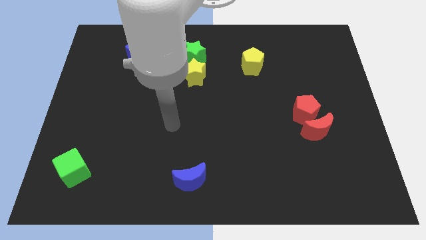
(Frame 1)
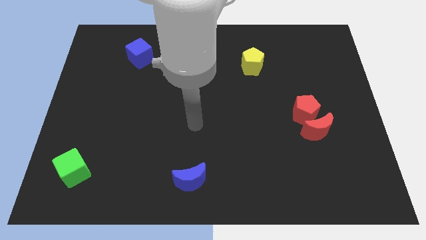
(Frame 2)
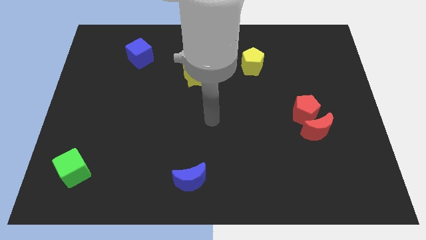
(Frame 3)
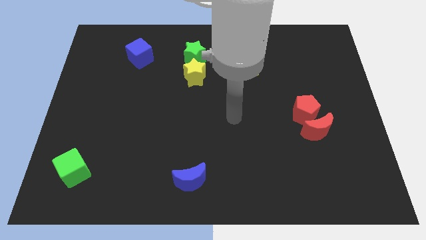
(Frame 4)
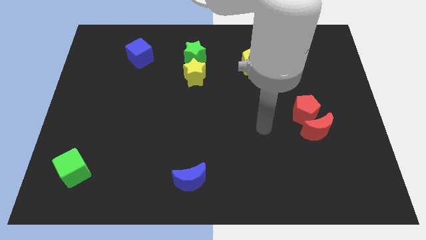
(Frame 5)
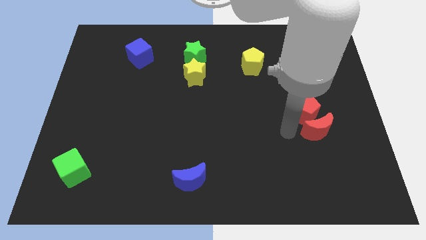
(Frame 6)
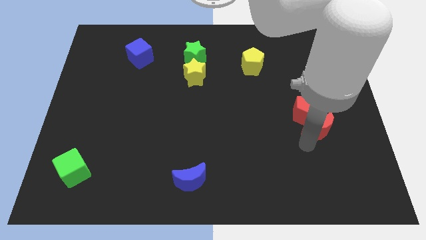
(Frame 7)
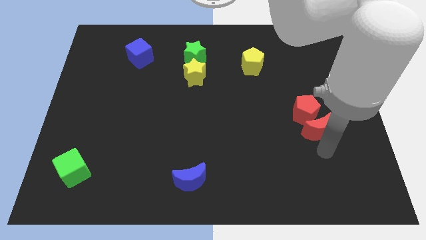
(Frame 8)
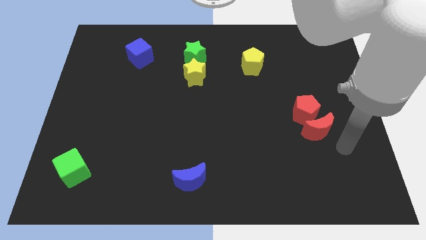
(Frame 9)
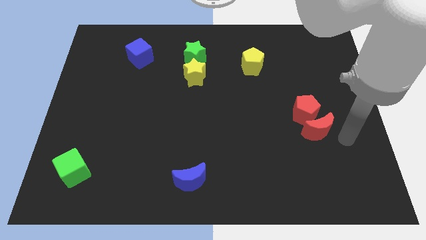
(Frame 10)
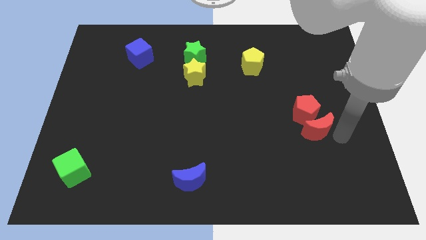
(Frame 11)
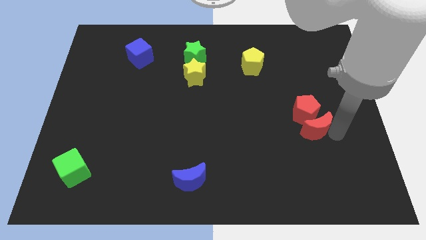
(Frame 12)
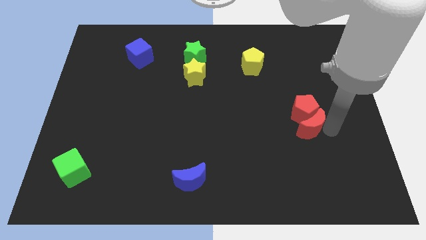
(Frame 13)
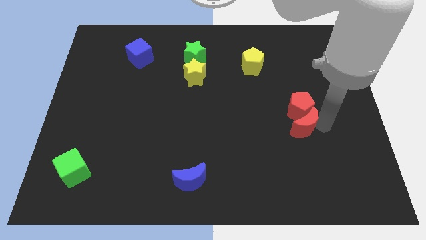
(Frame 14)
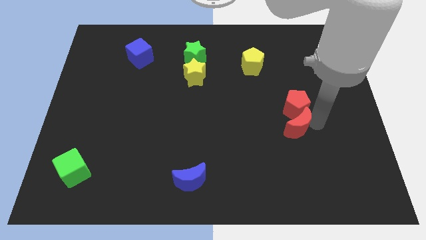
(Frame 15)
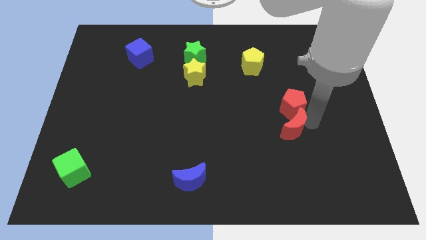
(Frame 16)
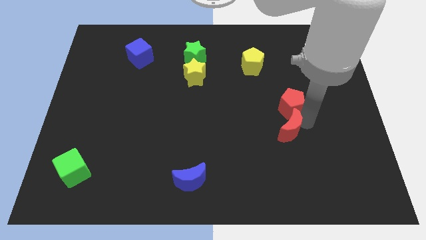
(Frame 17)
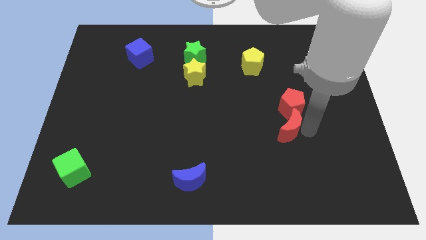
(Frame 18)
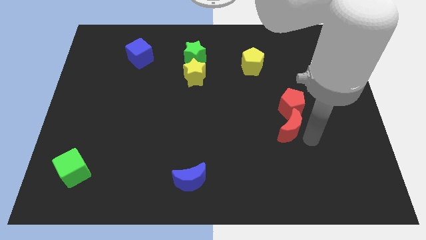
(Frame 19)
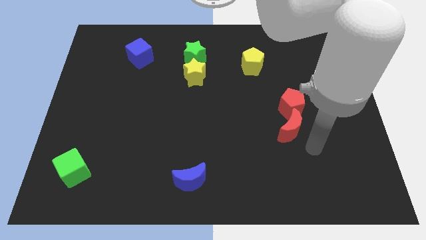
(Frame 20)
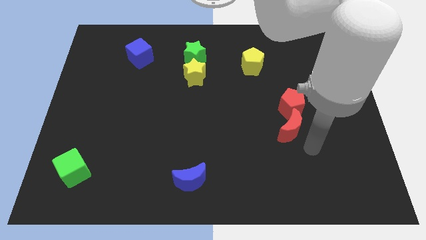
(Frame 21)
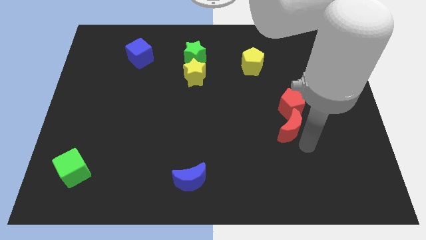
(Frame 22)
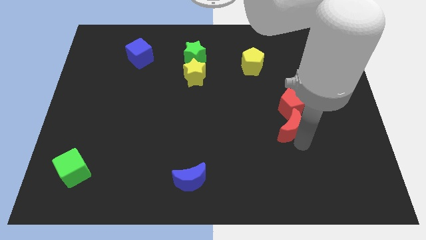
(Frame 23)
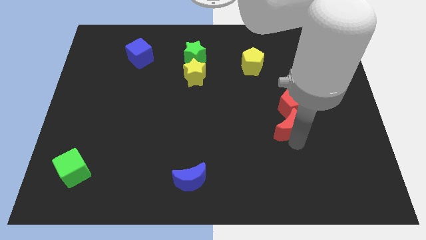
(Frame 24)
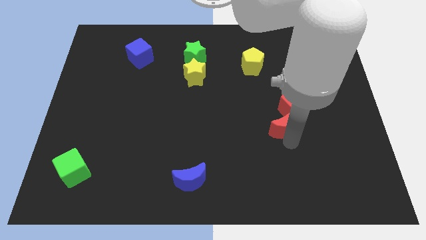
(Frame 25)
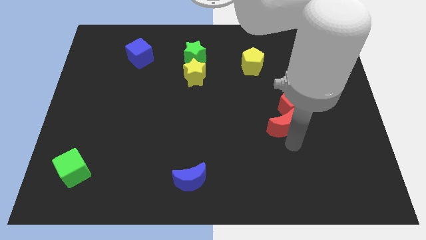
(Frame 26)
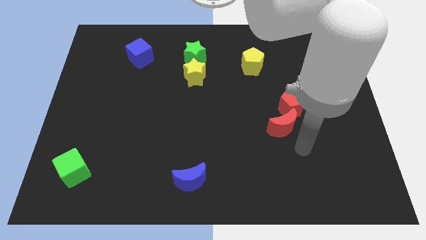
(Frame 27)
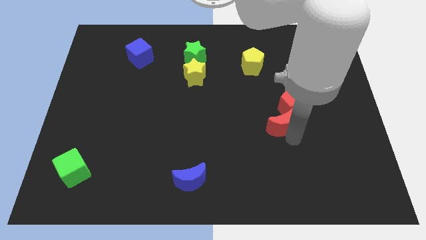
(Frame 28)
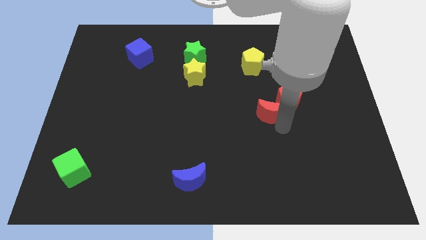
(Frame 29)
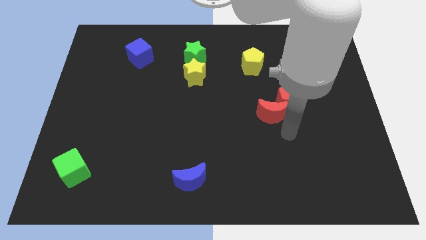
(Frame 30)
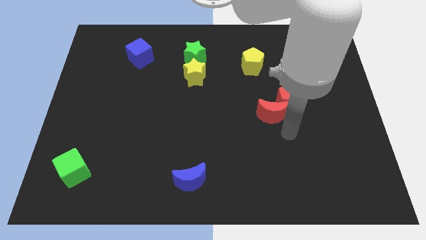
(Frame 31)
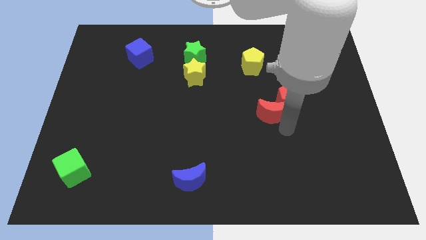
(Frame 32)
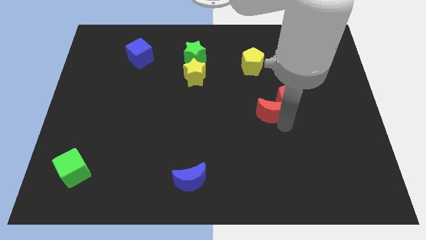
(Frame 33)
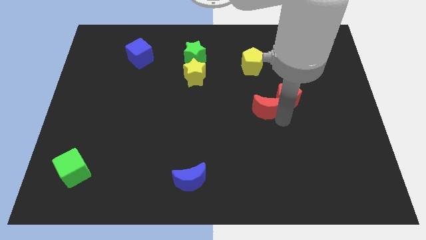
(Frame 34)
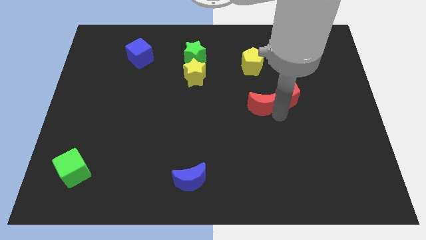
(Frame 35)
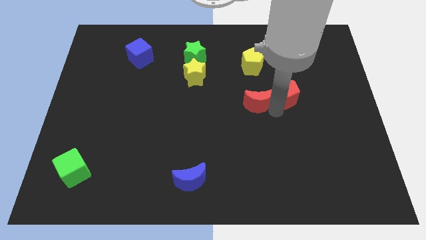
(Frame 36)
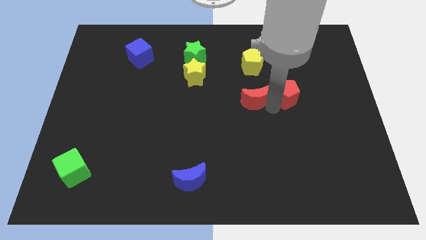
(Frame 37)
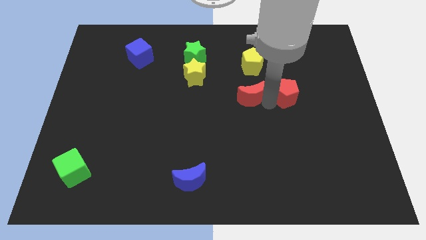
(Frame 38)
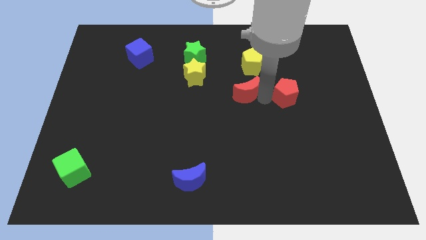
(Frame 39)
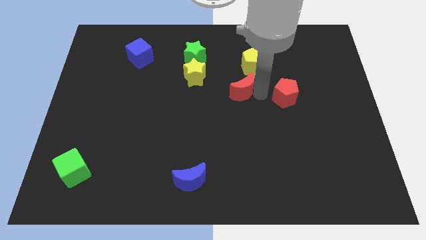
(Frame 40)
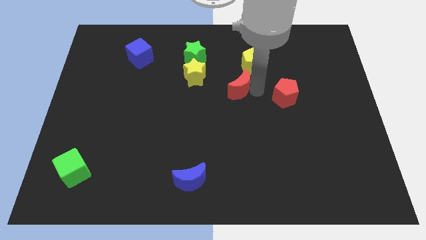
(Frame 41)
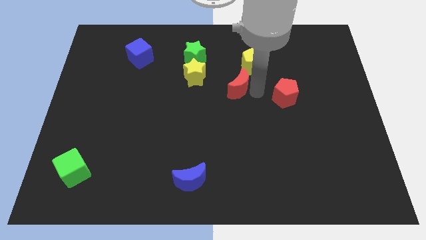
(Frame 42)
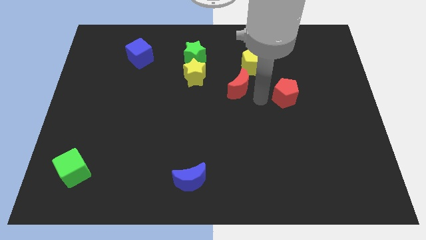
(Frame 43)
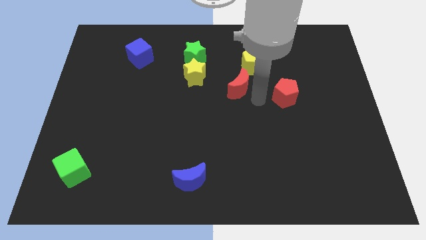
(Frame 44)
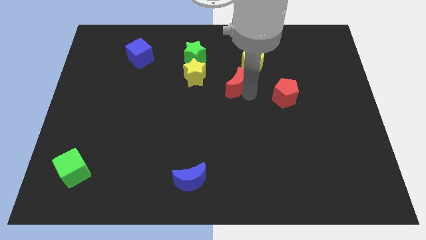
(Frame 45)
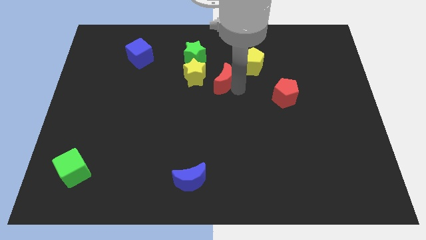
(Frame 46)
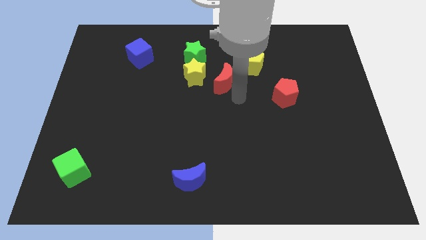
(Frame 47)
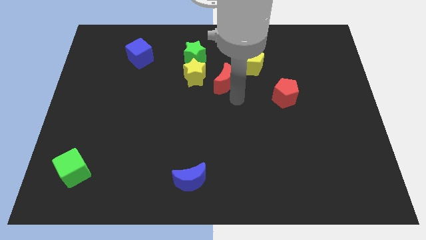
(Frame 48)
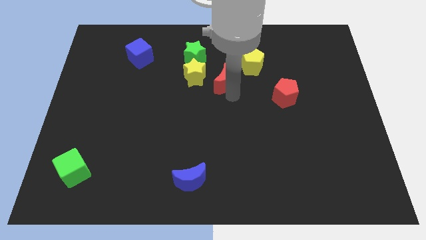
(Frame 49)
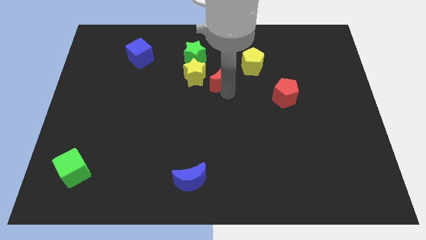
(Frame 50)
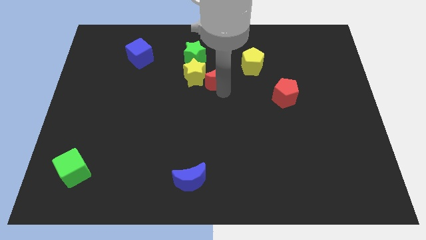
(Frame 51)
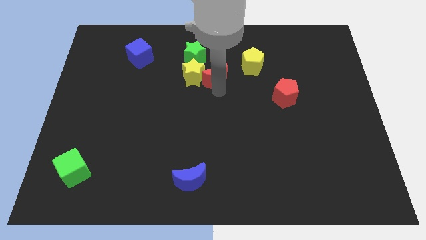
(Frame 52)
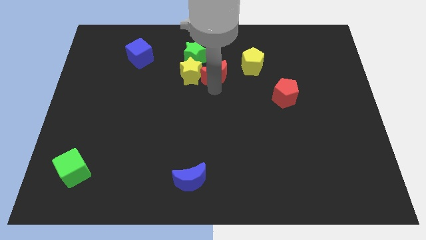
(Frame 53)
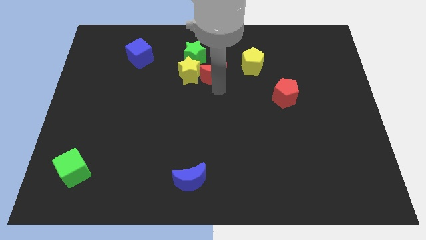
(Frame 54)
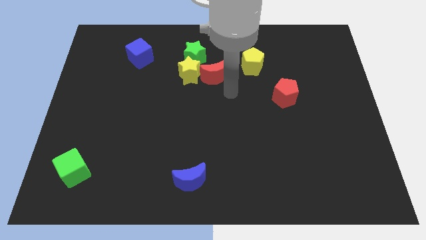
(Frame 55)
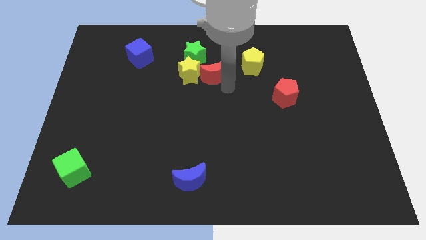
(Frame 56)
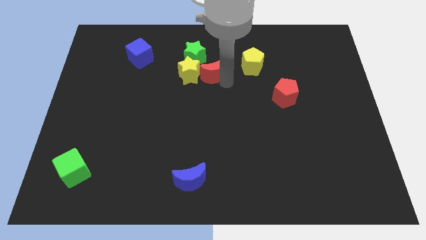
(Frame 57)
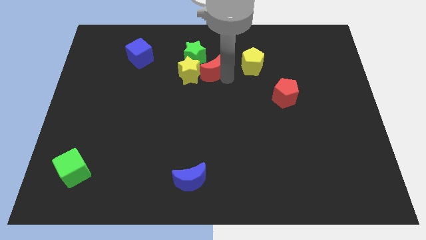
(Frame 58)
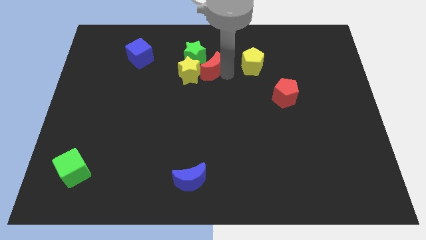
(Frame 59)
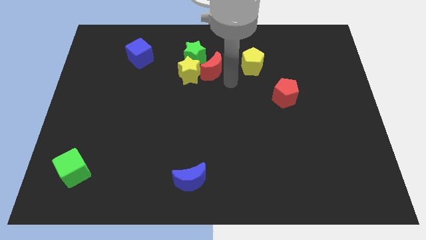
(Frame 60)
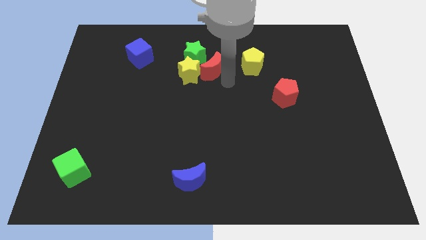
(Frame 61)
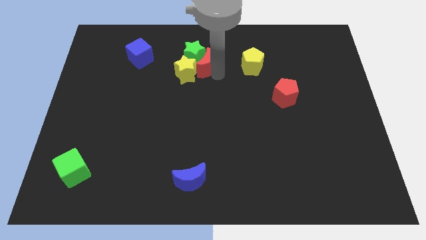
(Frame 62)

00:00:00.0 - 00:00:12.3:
push the red moon towards the green star

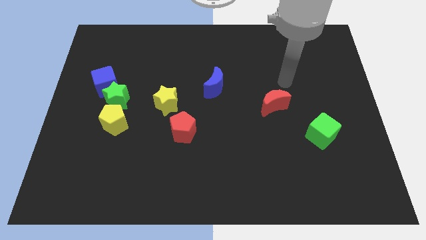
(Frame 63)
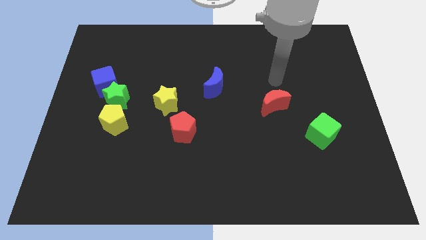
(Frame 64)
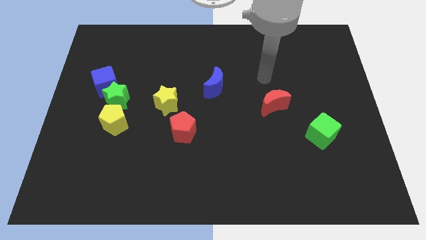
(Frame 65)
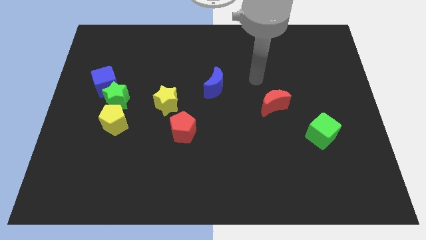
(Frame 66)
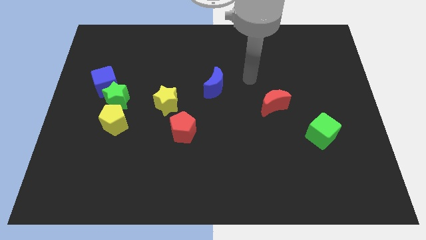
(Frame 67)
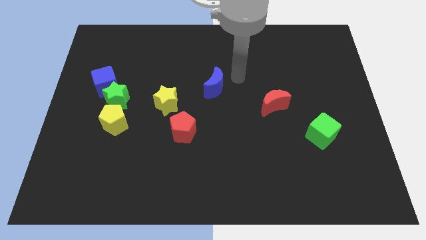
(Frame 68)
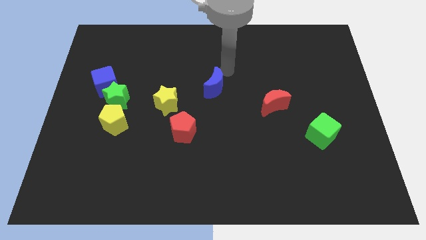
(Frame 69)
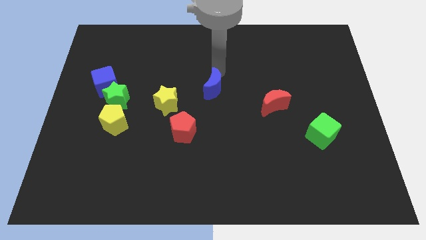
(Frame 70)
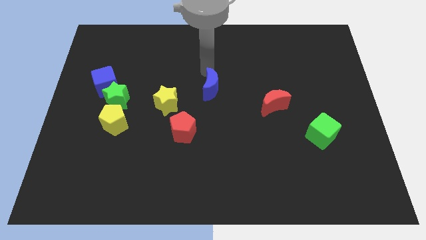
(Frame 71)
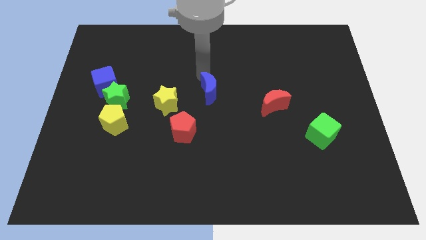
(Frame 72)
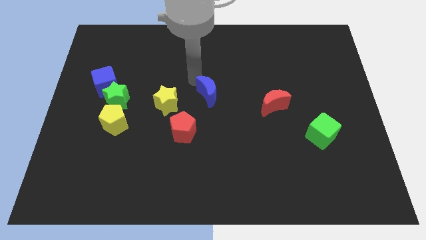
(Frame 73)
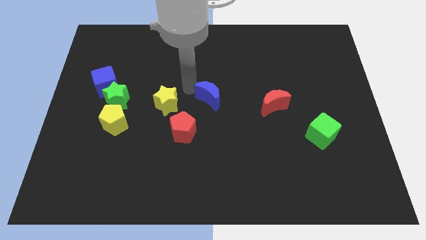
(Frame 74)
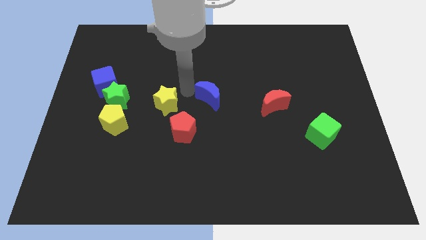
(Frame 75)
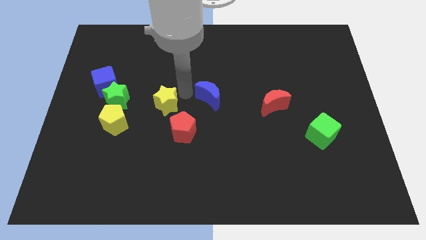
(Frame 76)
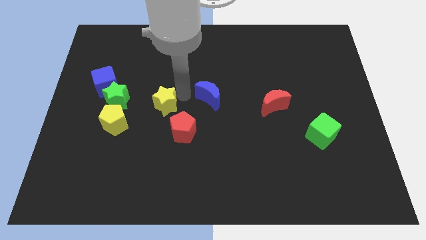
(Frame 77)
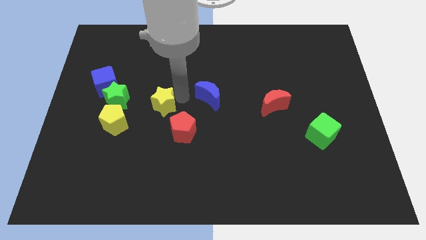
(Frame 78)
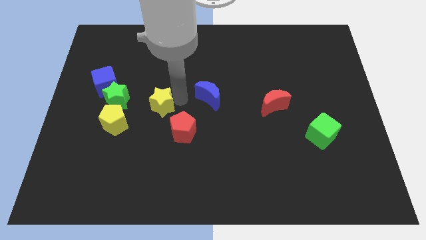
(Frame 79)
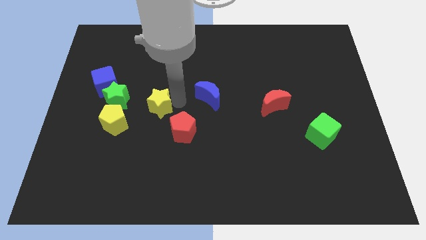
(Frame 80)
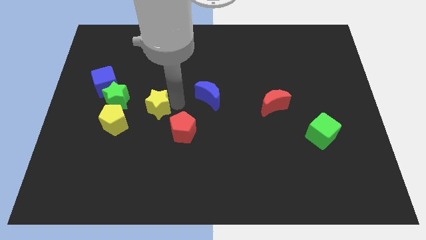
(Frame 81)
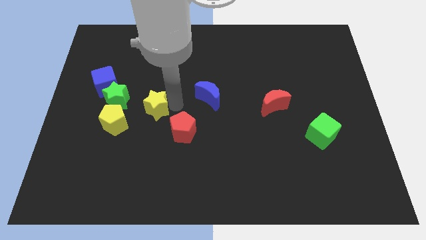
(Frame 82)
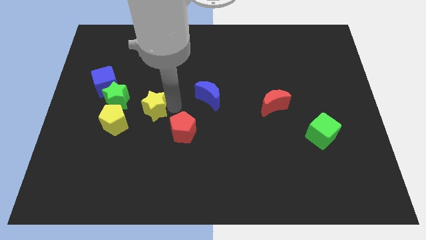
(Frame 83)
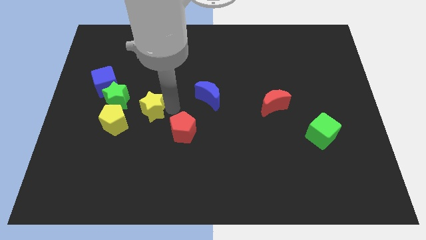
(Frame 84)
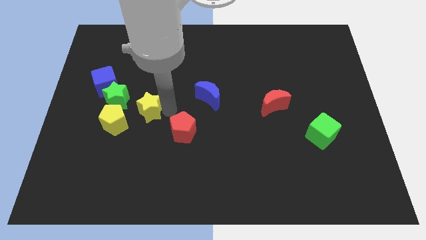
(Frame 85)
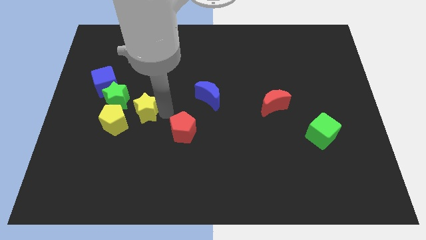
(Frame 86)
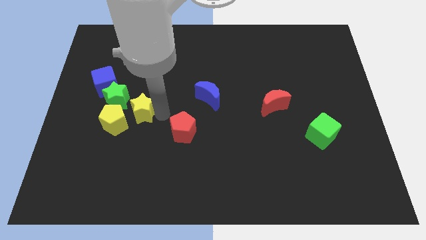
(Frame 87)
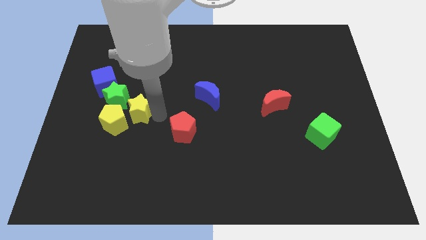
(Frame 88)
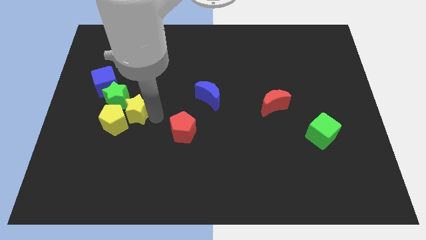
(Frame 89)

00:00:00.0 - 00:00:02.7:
put the yellow star close to the yellow pentagon
